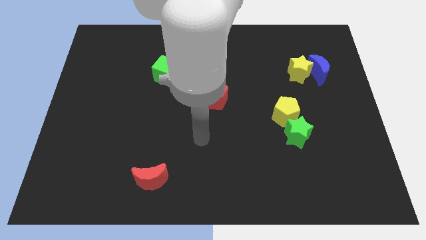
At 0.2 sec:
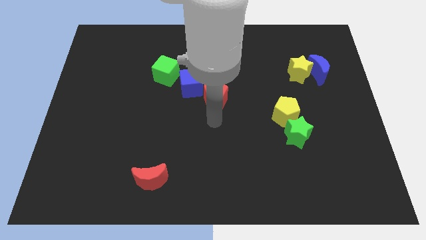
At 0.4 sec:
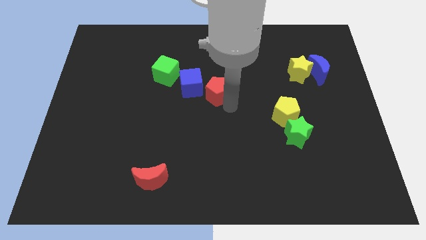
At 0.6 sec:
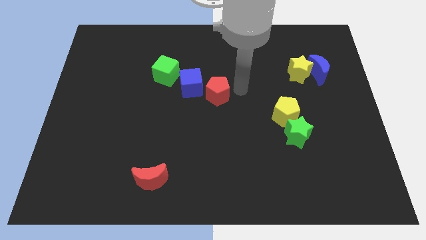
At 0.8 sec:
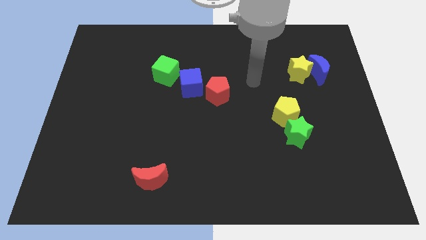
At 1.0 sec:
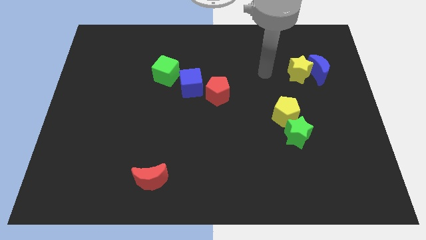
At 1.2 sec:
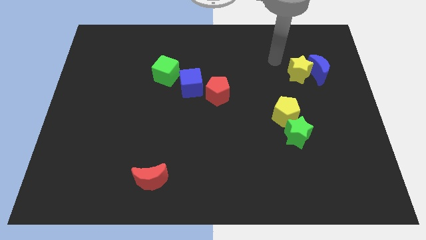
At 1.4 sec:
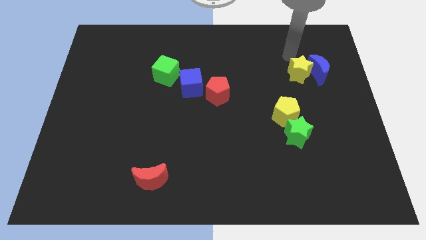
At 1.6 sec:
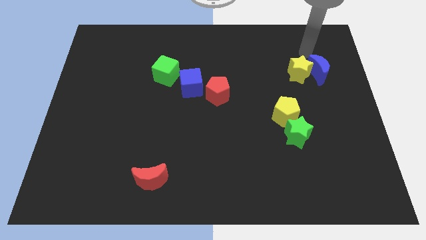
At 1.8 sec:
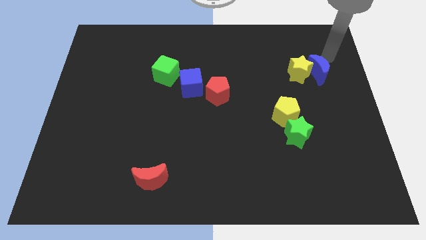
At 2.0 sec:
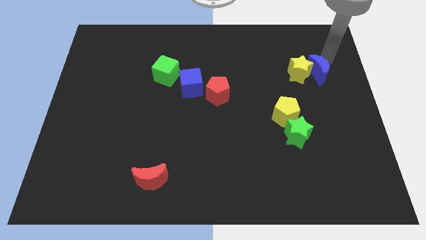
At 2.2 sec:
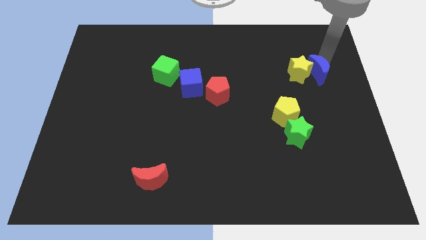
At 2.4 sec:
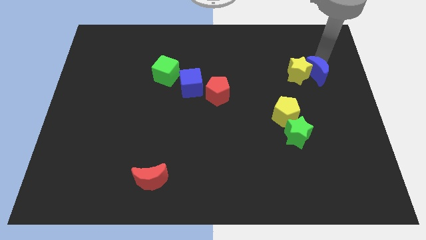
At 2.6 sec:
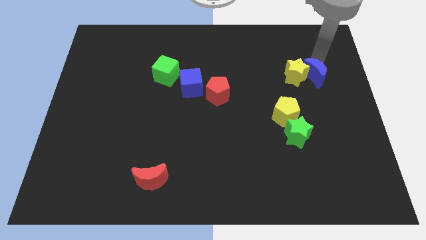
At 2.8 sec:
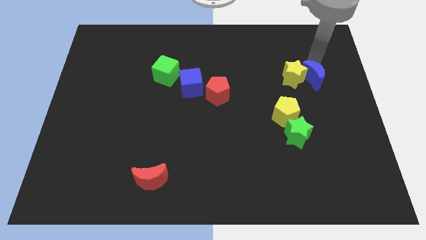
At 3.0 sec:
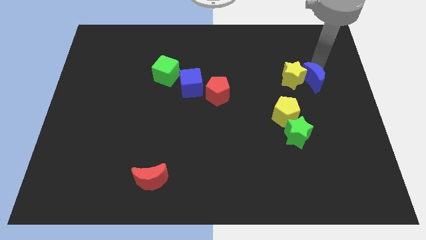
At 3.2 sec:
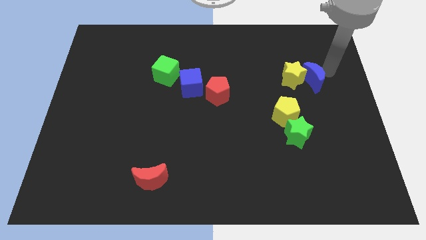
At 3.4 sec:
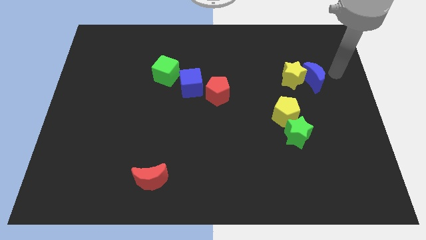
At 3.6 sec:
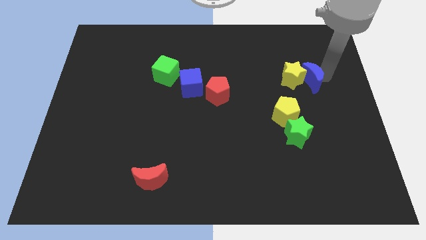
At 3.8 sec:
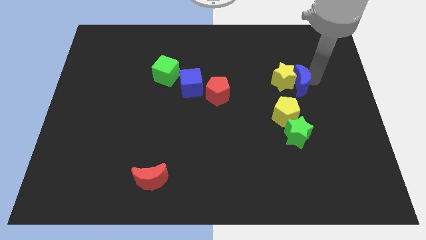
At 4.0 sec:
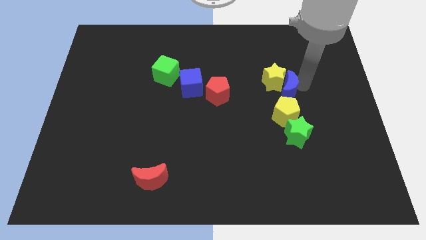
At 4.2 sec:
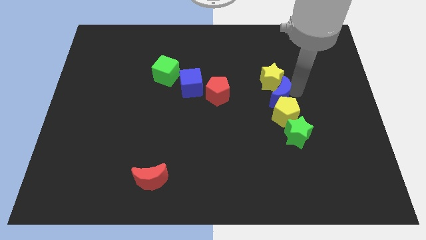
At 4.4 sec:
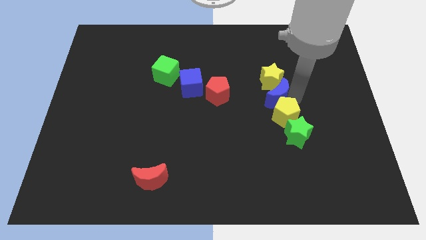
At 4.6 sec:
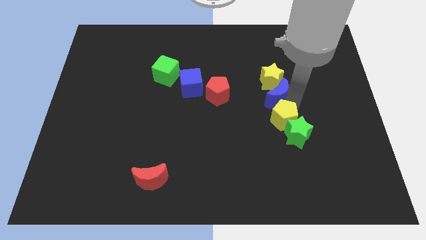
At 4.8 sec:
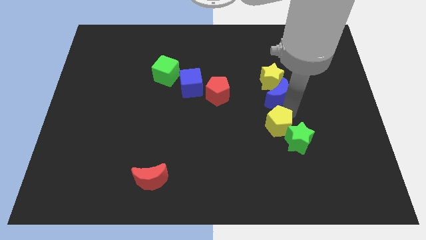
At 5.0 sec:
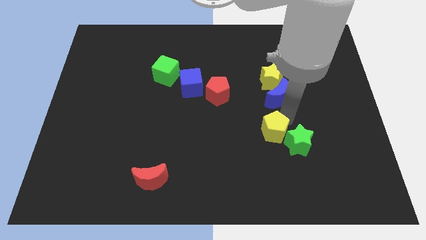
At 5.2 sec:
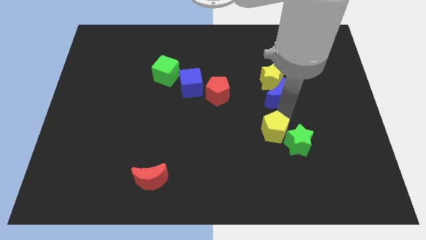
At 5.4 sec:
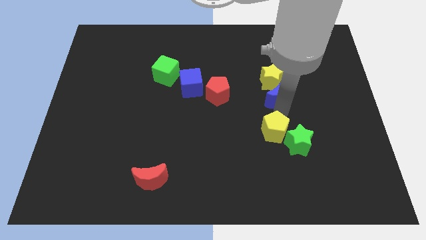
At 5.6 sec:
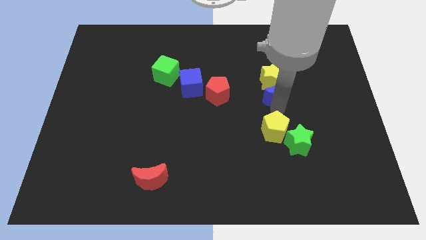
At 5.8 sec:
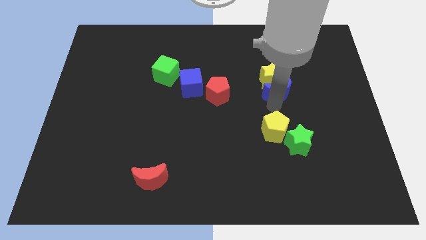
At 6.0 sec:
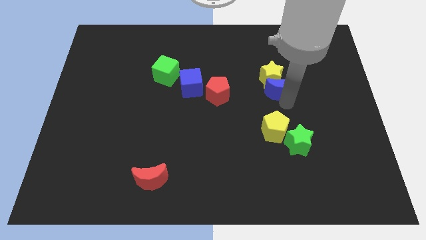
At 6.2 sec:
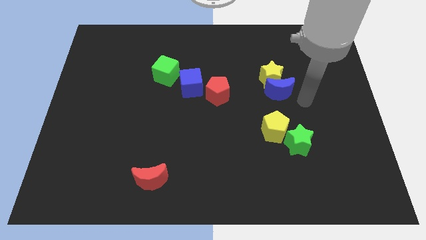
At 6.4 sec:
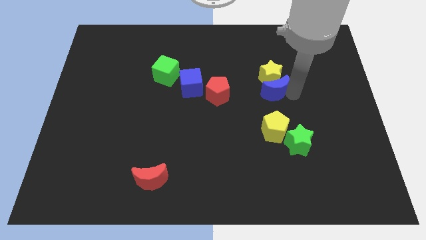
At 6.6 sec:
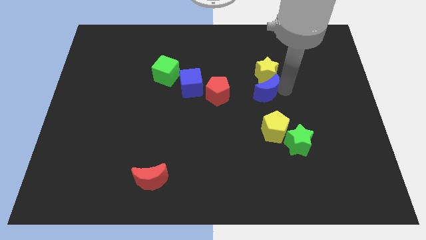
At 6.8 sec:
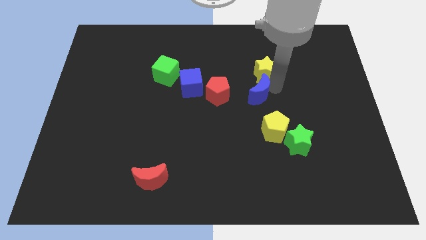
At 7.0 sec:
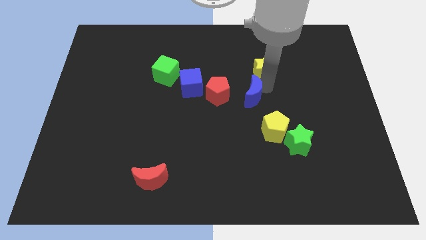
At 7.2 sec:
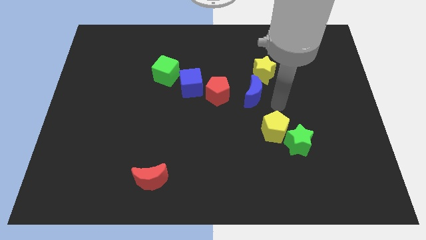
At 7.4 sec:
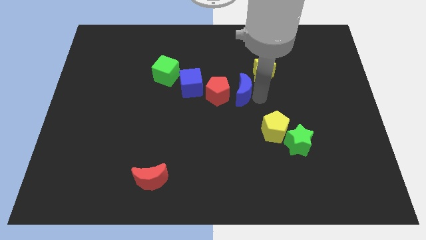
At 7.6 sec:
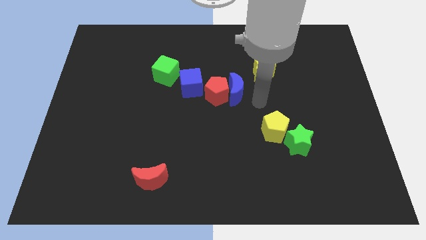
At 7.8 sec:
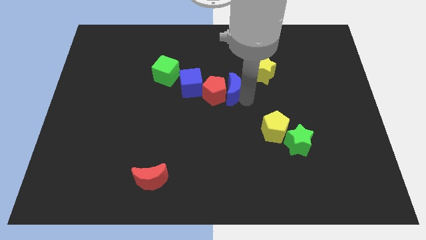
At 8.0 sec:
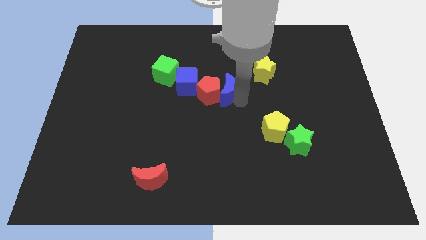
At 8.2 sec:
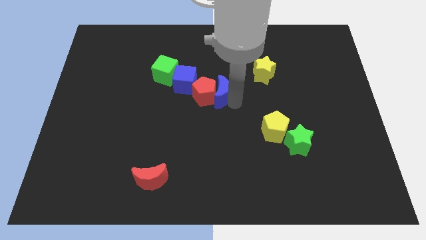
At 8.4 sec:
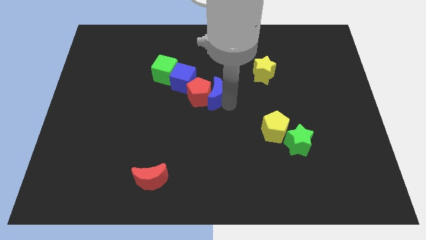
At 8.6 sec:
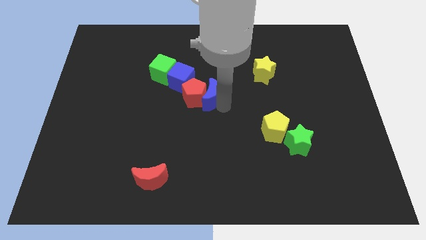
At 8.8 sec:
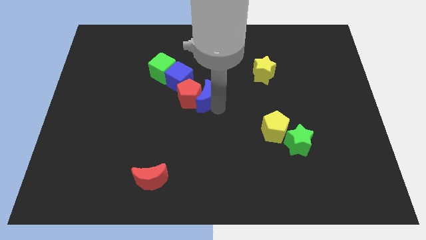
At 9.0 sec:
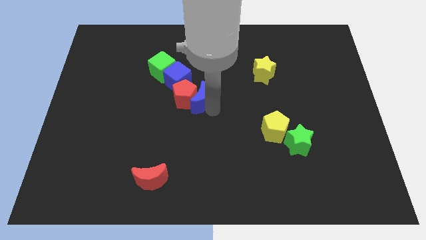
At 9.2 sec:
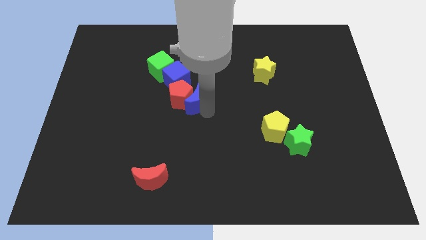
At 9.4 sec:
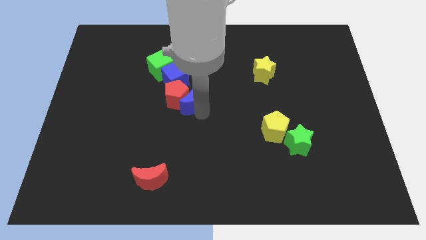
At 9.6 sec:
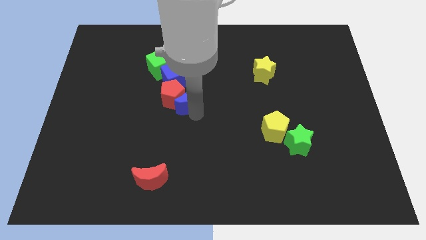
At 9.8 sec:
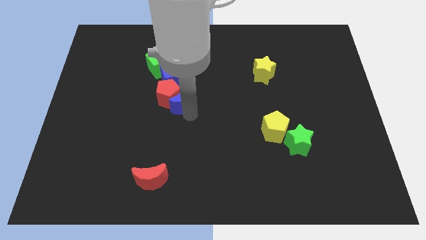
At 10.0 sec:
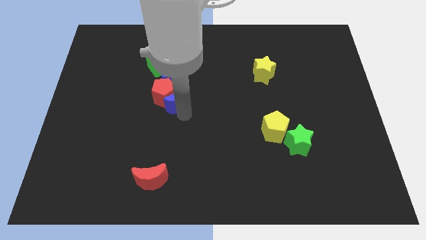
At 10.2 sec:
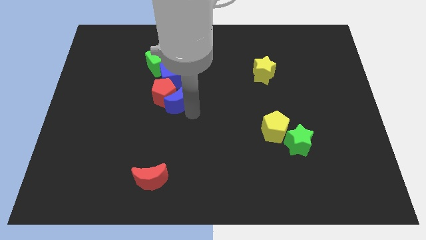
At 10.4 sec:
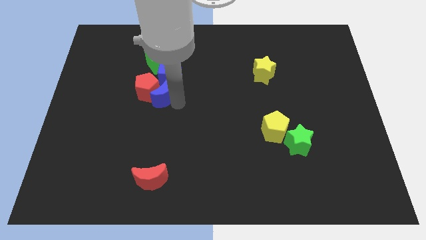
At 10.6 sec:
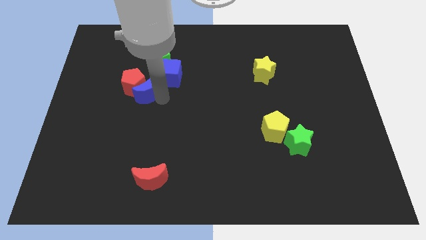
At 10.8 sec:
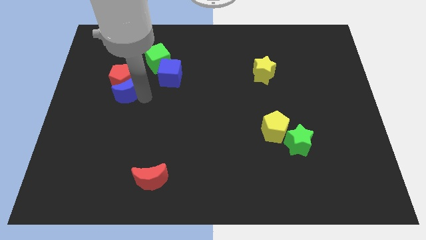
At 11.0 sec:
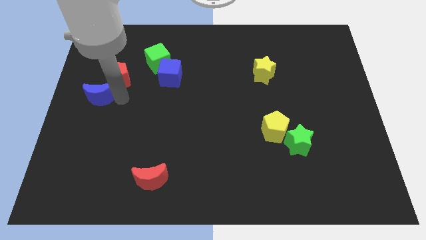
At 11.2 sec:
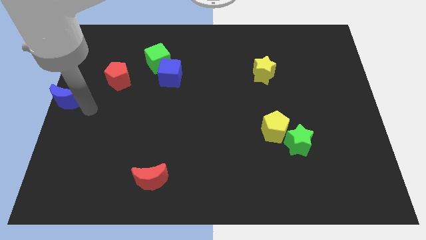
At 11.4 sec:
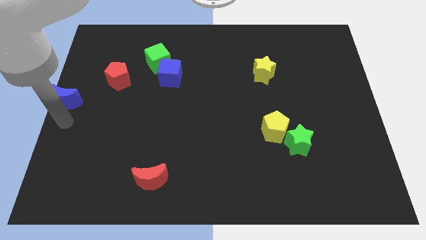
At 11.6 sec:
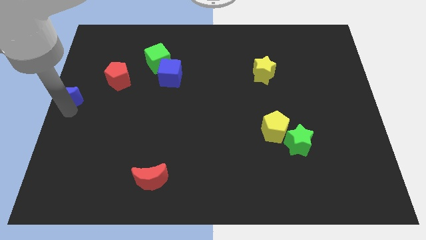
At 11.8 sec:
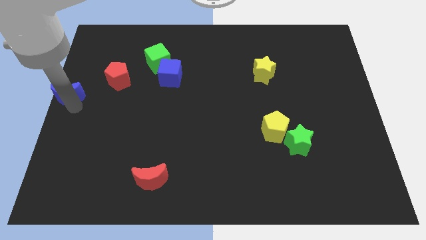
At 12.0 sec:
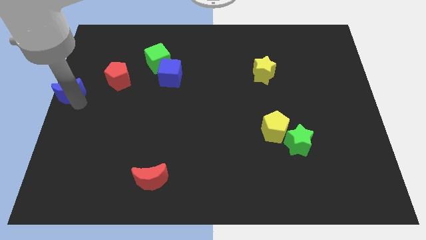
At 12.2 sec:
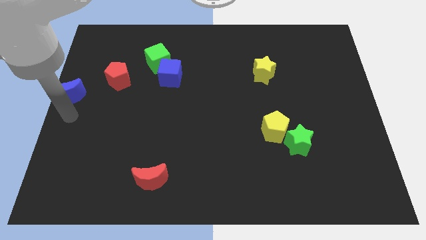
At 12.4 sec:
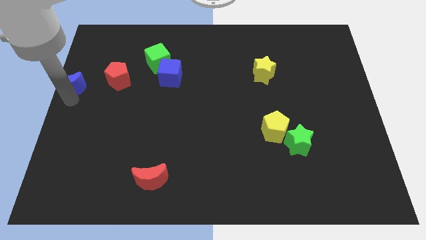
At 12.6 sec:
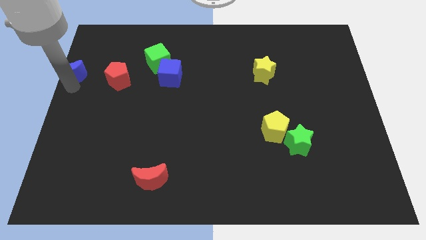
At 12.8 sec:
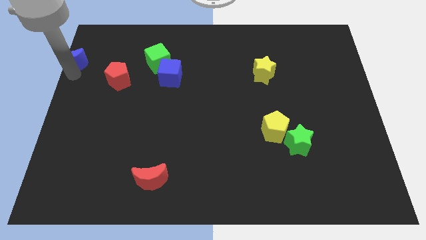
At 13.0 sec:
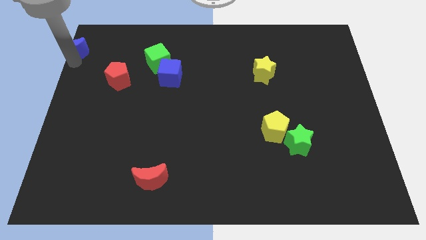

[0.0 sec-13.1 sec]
slide the blue moon to the top left of the board

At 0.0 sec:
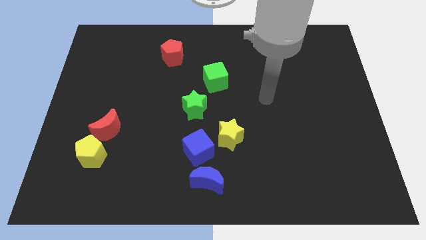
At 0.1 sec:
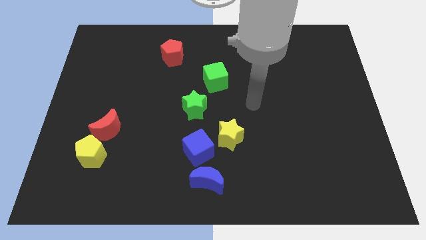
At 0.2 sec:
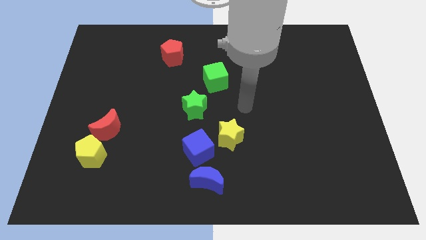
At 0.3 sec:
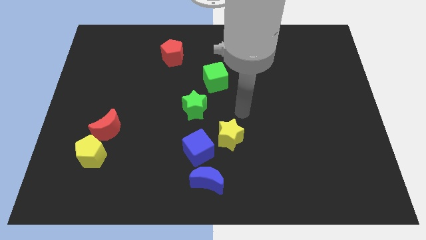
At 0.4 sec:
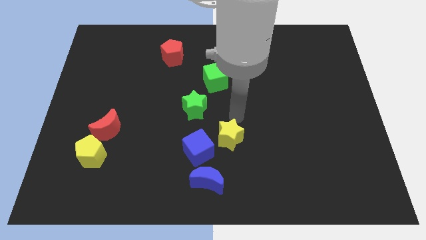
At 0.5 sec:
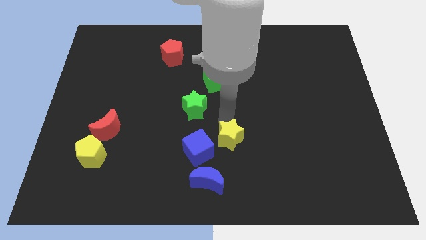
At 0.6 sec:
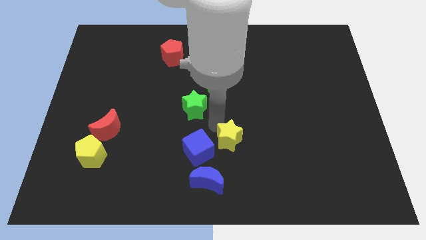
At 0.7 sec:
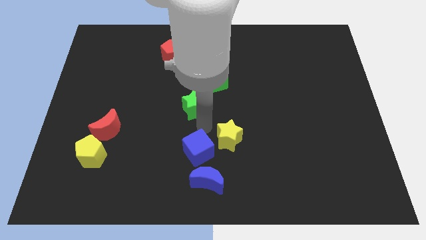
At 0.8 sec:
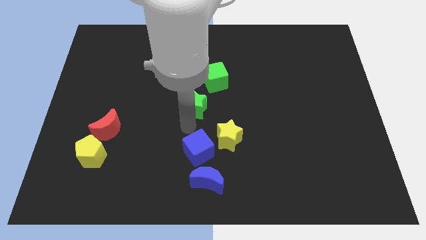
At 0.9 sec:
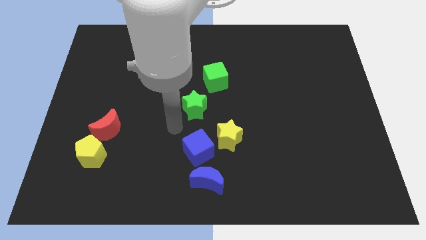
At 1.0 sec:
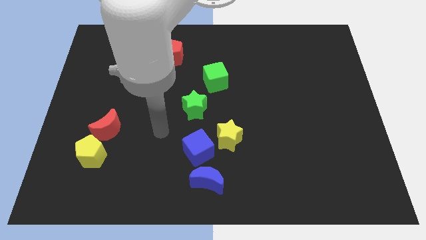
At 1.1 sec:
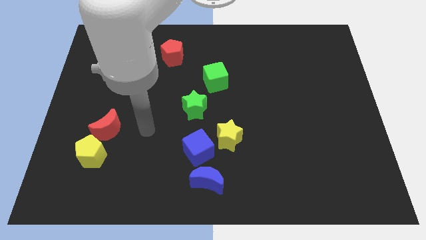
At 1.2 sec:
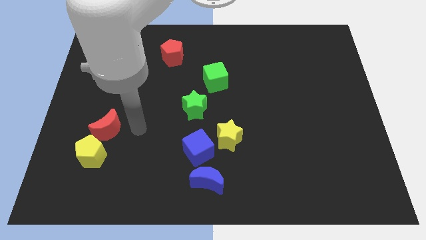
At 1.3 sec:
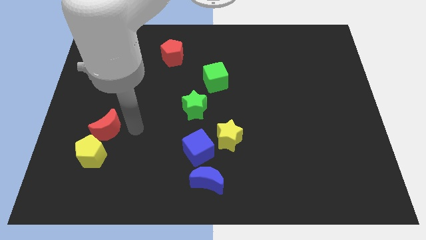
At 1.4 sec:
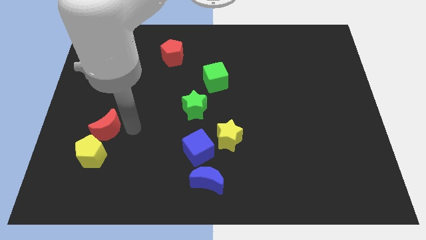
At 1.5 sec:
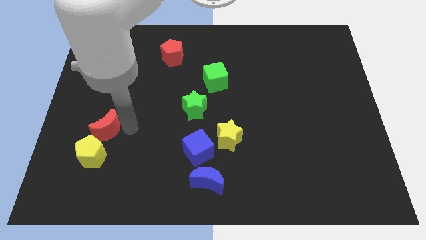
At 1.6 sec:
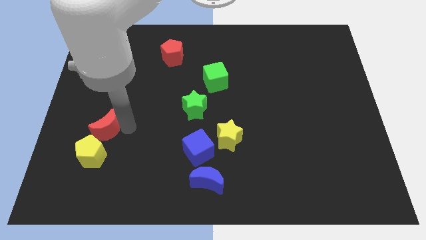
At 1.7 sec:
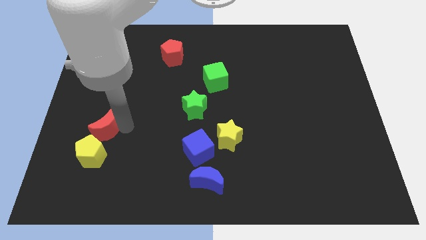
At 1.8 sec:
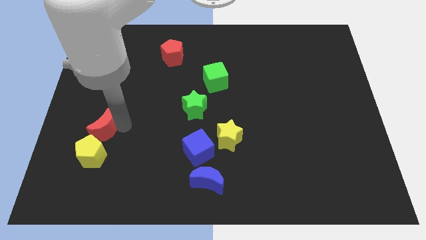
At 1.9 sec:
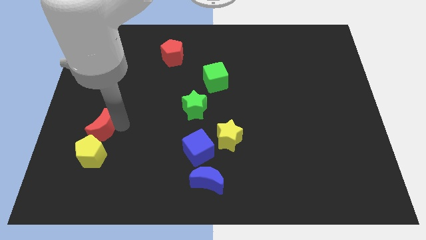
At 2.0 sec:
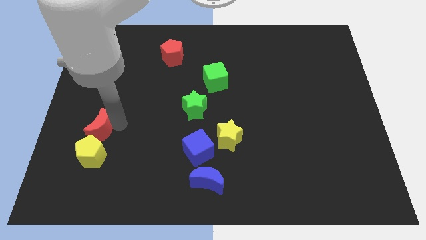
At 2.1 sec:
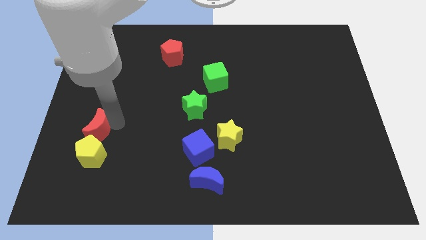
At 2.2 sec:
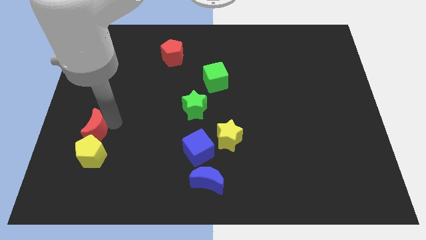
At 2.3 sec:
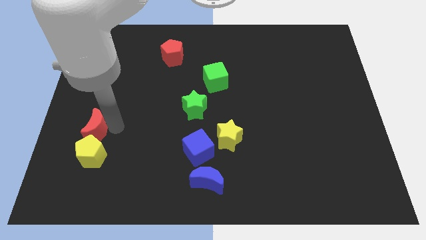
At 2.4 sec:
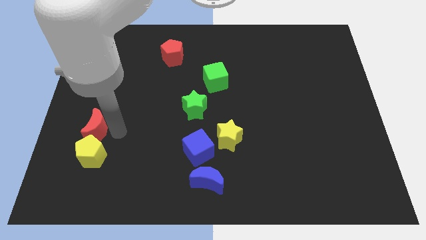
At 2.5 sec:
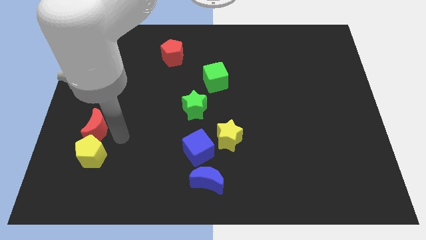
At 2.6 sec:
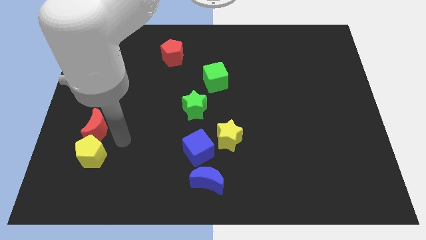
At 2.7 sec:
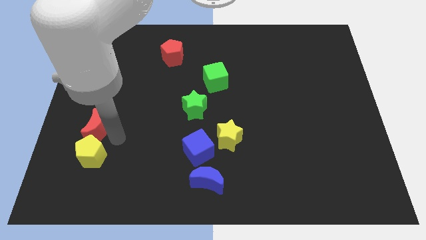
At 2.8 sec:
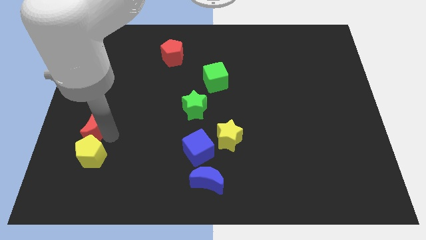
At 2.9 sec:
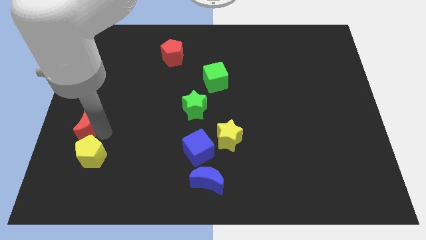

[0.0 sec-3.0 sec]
move the red moon to the center left
